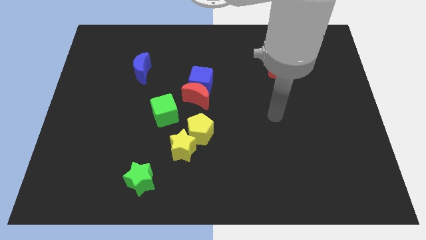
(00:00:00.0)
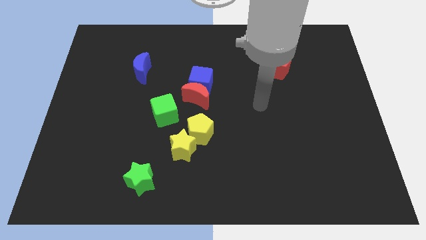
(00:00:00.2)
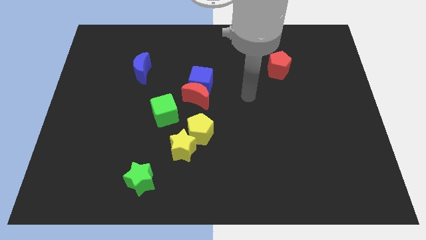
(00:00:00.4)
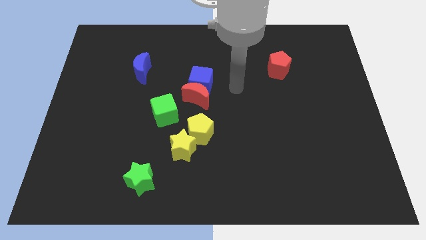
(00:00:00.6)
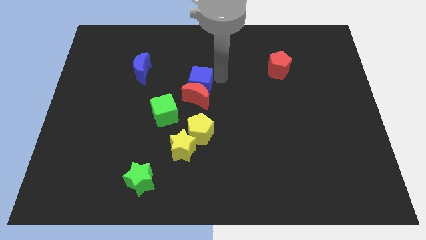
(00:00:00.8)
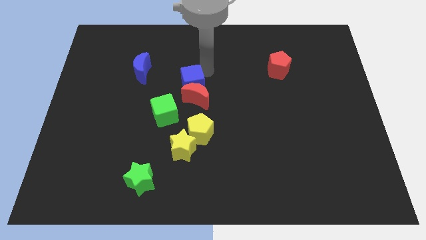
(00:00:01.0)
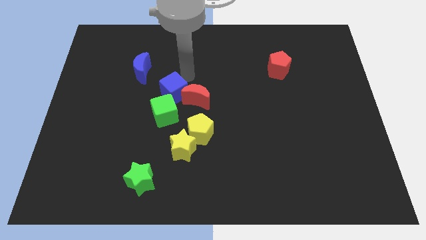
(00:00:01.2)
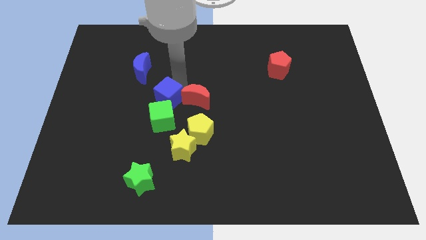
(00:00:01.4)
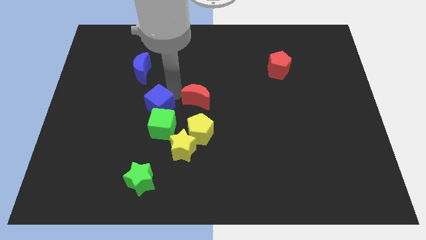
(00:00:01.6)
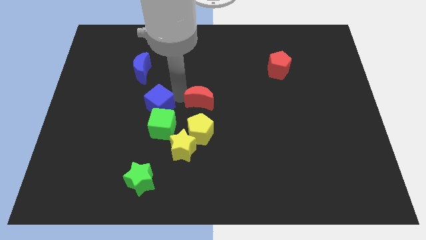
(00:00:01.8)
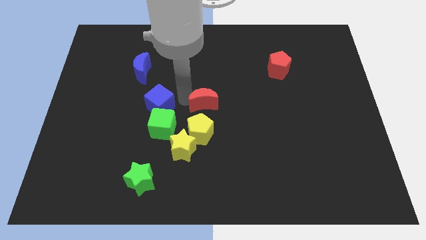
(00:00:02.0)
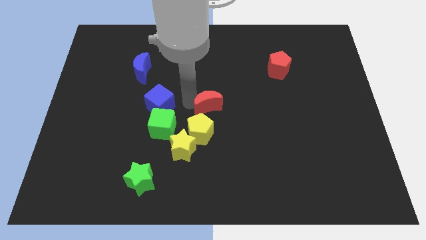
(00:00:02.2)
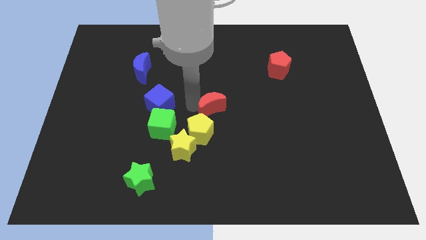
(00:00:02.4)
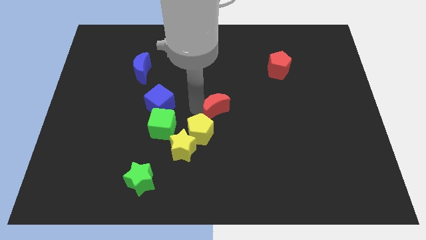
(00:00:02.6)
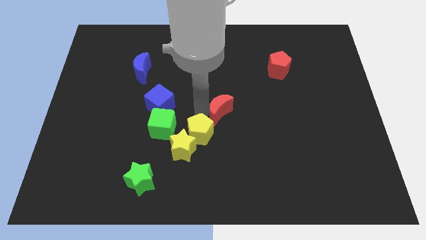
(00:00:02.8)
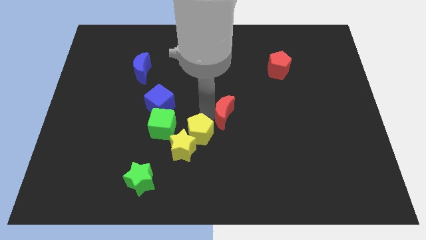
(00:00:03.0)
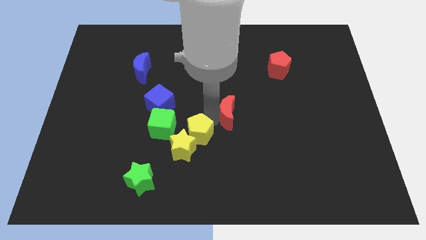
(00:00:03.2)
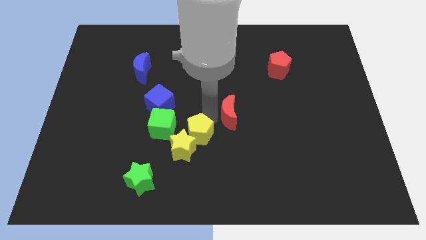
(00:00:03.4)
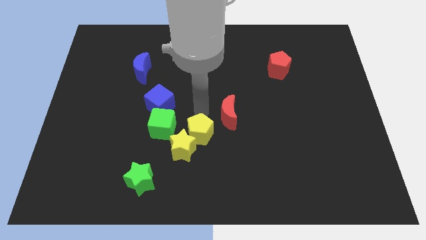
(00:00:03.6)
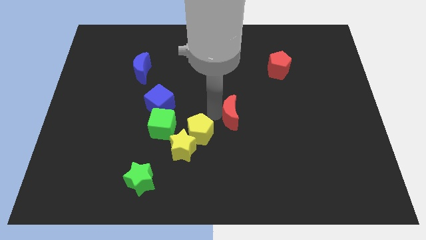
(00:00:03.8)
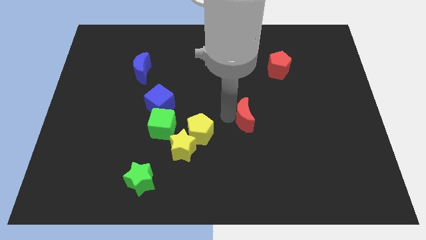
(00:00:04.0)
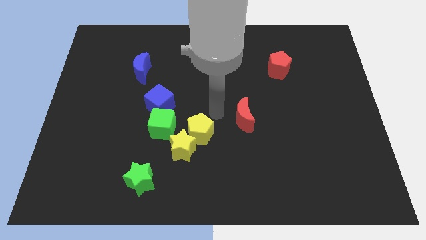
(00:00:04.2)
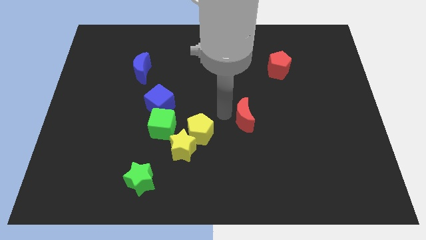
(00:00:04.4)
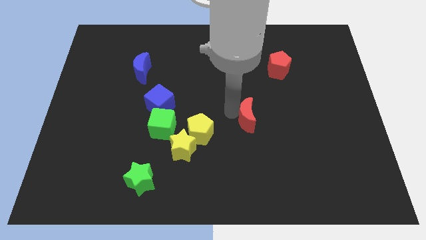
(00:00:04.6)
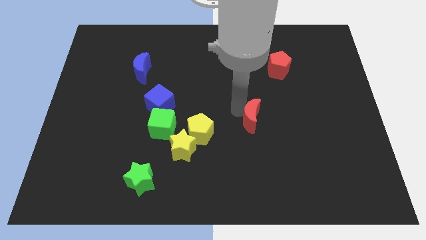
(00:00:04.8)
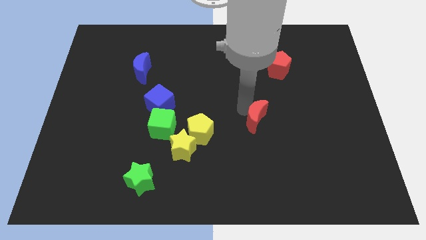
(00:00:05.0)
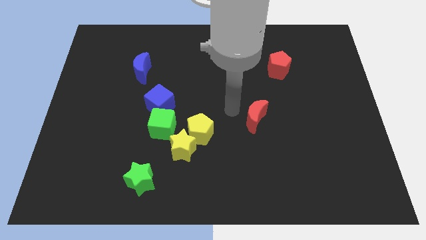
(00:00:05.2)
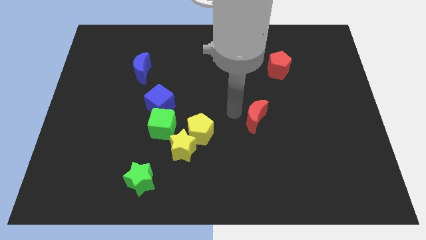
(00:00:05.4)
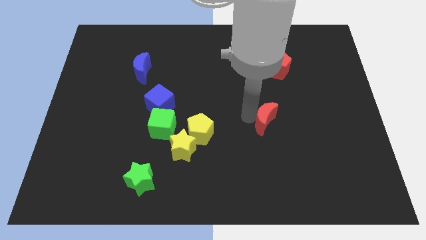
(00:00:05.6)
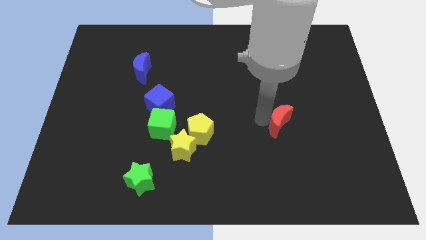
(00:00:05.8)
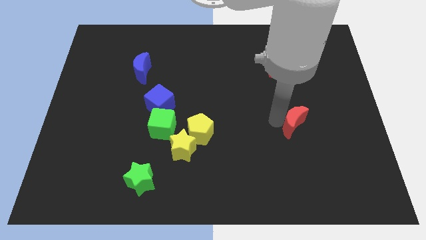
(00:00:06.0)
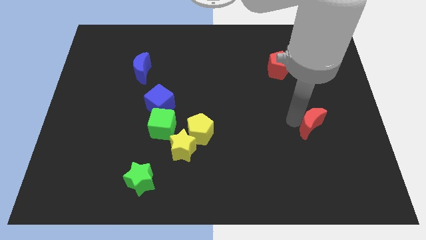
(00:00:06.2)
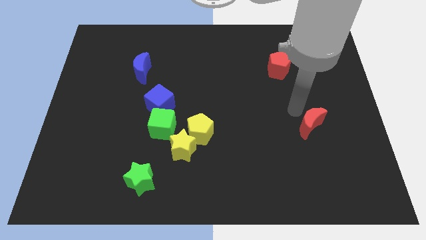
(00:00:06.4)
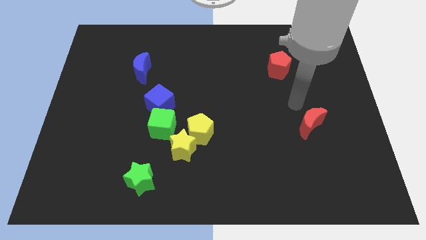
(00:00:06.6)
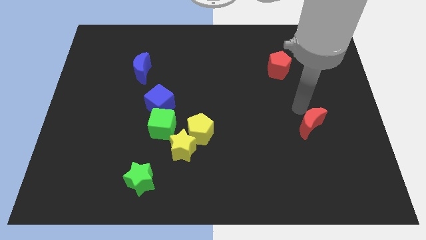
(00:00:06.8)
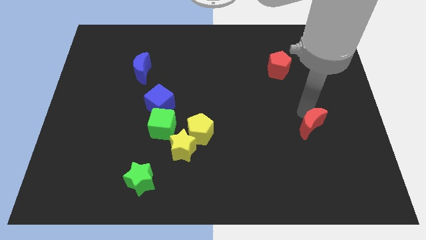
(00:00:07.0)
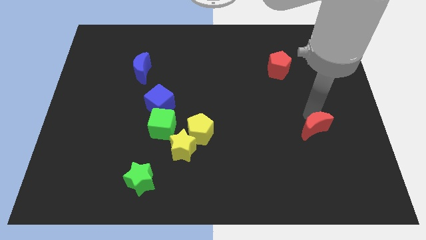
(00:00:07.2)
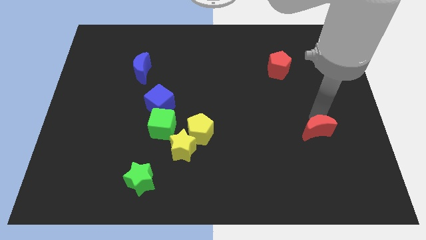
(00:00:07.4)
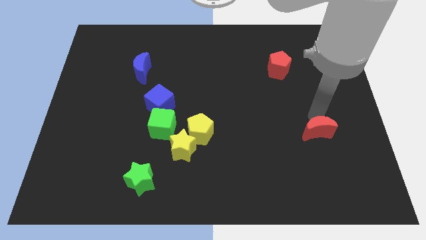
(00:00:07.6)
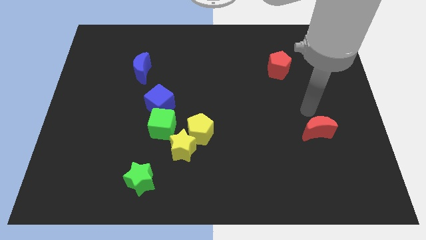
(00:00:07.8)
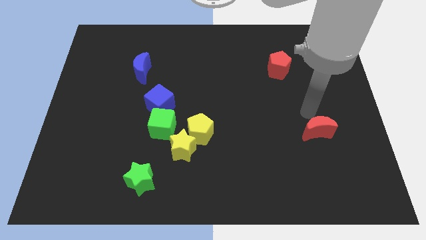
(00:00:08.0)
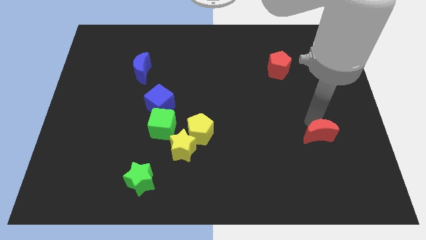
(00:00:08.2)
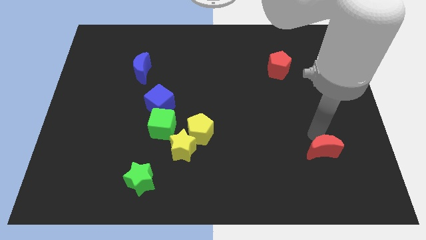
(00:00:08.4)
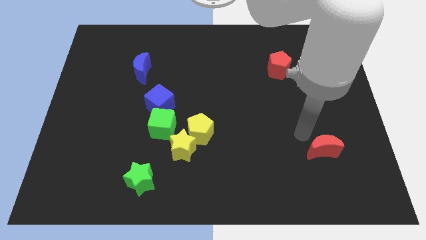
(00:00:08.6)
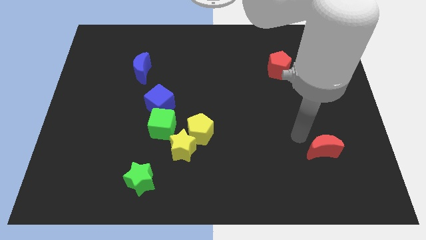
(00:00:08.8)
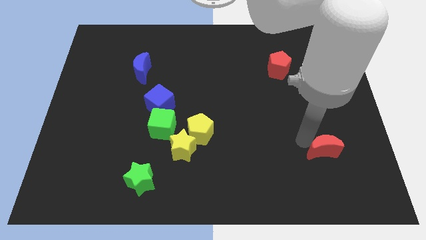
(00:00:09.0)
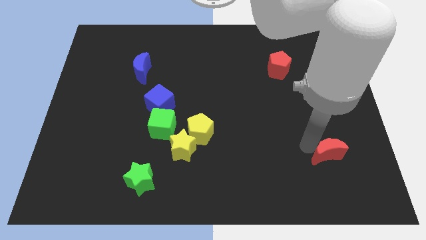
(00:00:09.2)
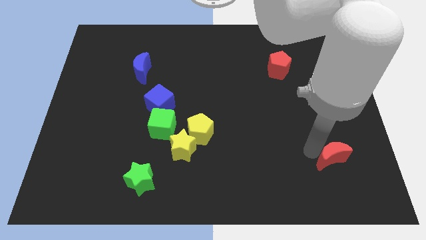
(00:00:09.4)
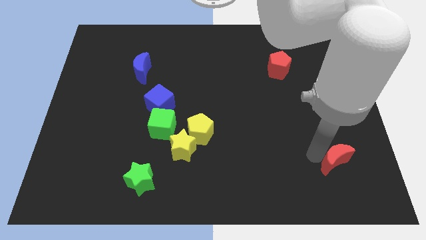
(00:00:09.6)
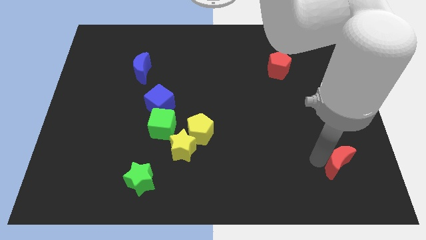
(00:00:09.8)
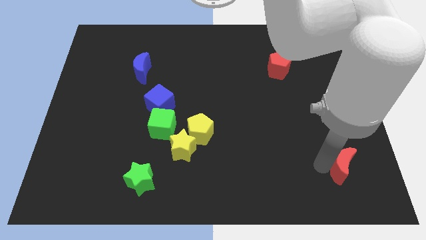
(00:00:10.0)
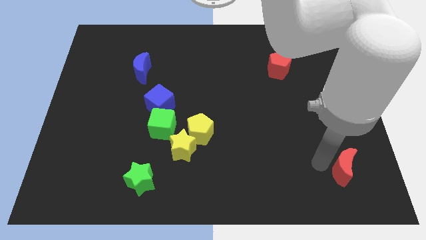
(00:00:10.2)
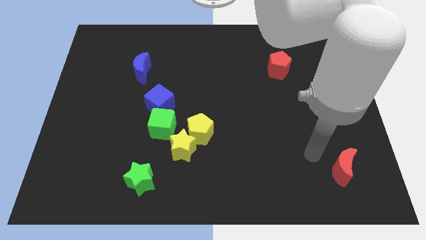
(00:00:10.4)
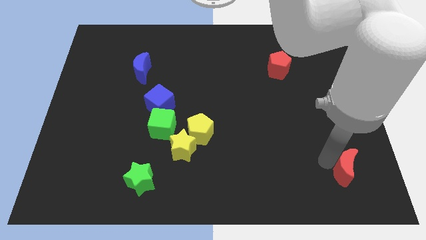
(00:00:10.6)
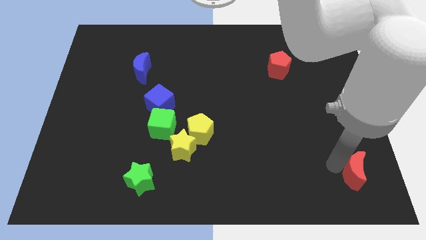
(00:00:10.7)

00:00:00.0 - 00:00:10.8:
slide the red moon to the bottom right of the board

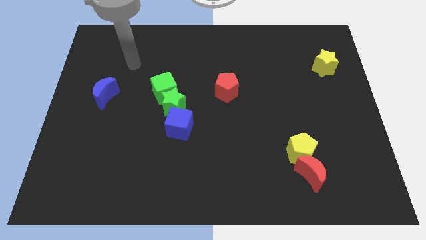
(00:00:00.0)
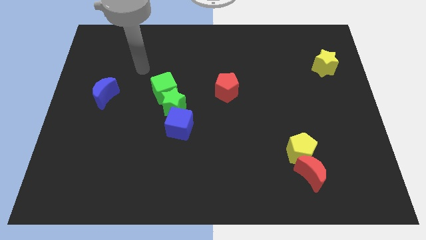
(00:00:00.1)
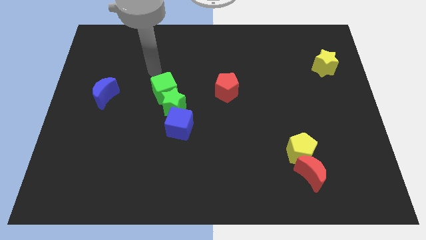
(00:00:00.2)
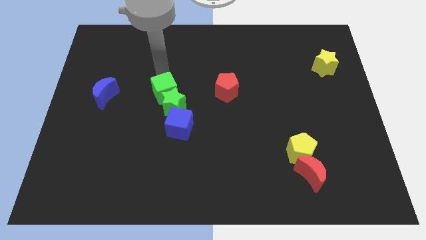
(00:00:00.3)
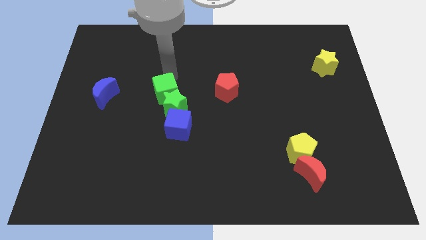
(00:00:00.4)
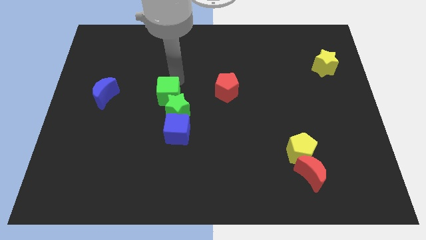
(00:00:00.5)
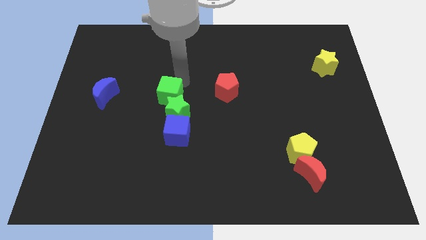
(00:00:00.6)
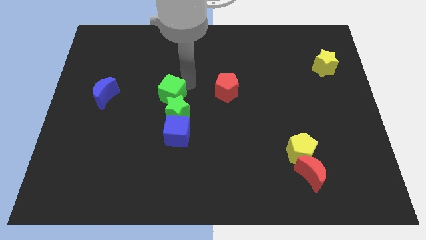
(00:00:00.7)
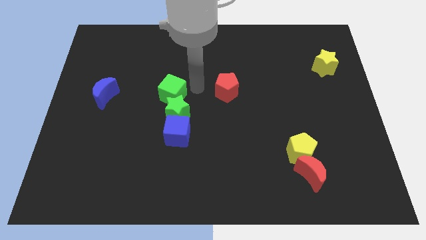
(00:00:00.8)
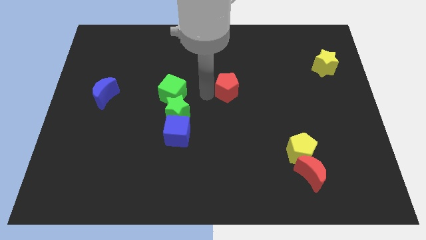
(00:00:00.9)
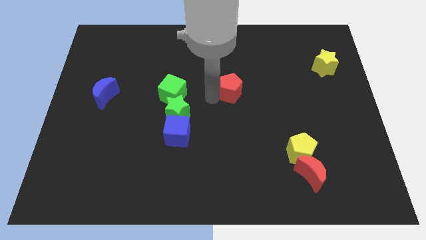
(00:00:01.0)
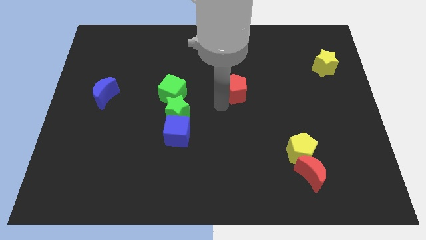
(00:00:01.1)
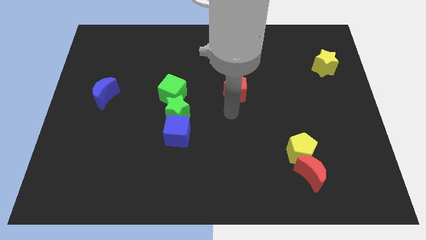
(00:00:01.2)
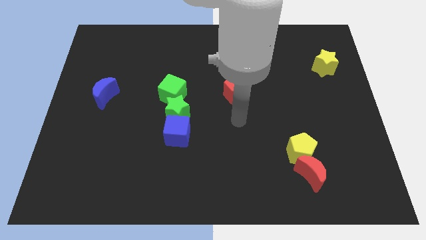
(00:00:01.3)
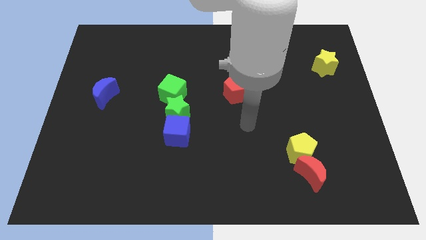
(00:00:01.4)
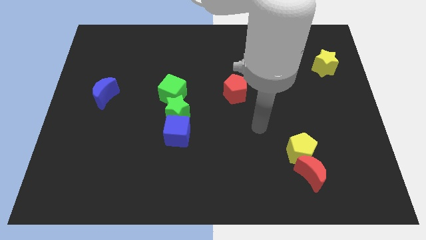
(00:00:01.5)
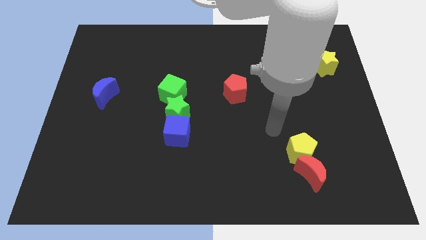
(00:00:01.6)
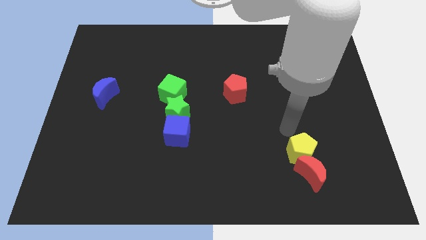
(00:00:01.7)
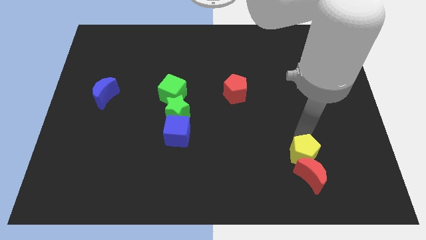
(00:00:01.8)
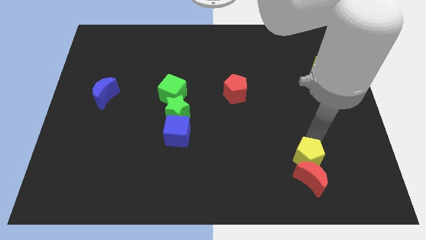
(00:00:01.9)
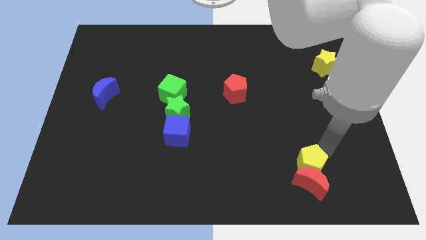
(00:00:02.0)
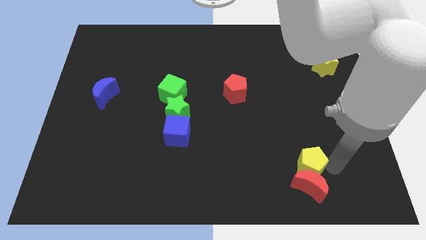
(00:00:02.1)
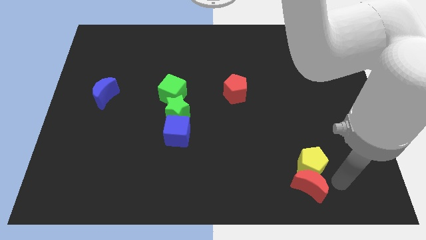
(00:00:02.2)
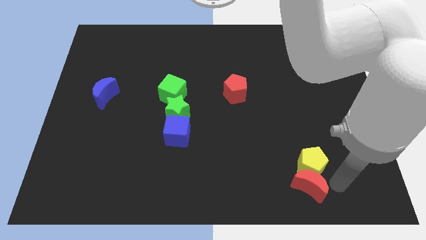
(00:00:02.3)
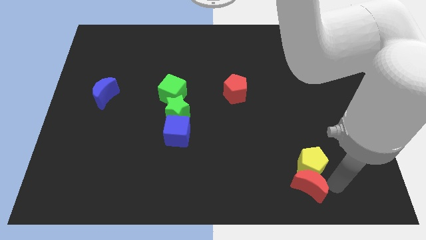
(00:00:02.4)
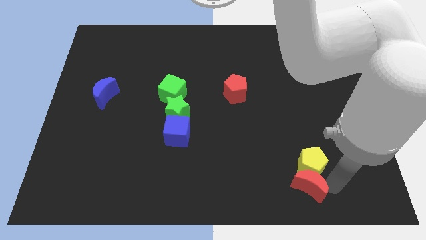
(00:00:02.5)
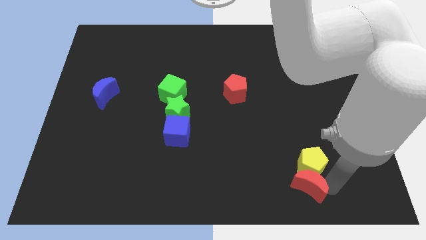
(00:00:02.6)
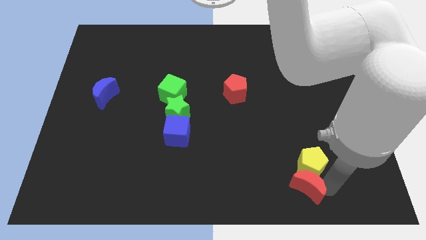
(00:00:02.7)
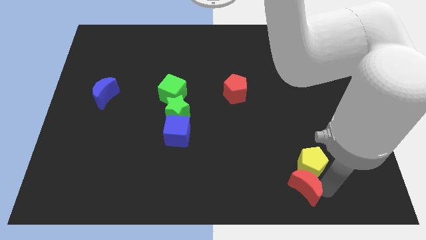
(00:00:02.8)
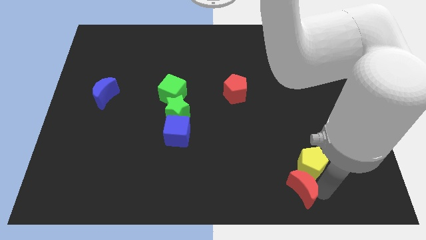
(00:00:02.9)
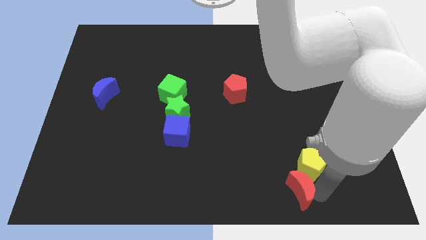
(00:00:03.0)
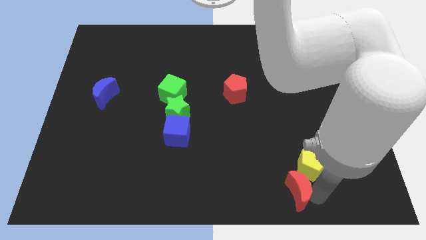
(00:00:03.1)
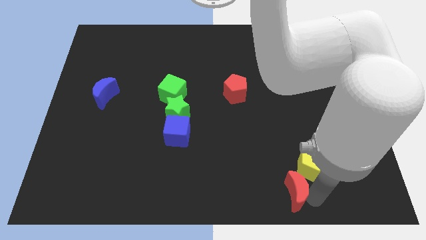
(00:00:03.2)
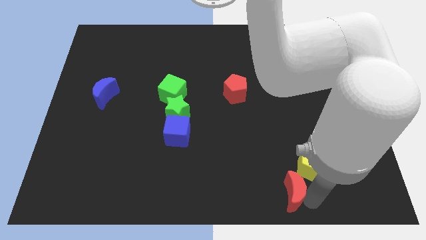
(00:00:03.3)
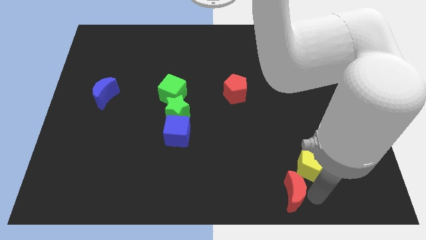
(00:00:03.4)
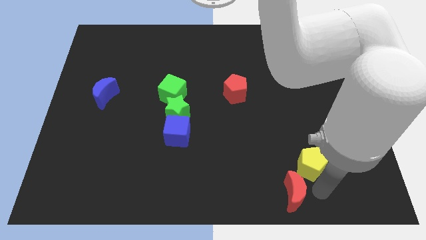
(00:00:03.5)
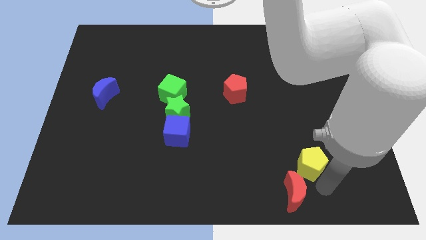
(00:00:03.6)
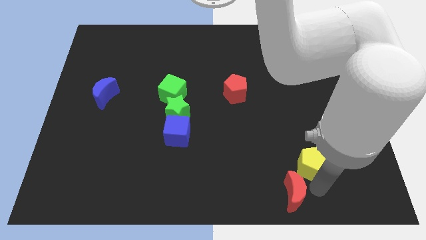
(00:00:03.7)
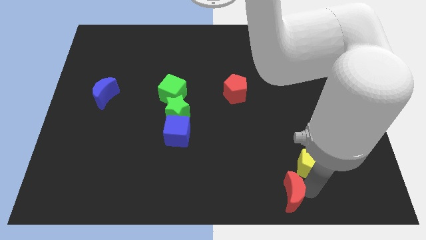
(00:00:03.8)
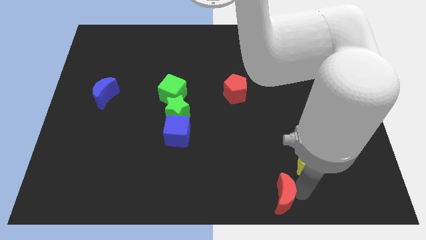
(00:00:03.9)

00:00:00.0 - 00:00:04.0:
push the red moon to the bottom
